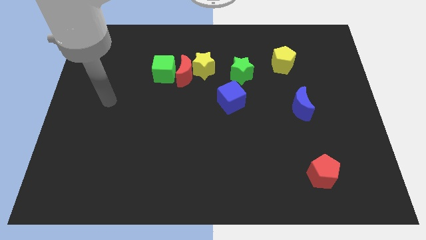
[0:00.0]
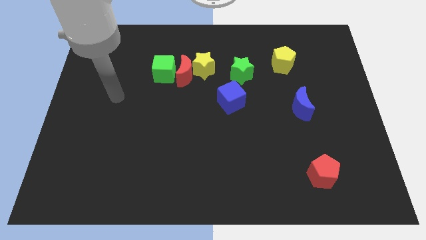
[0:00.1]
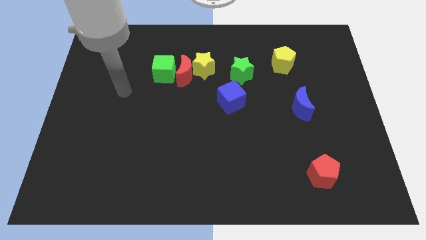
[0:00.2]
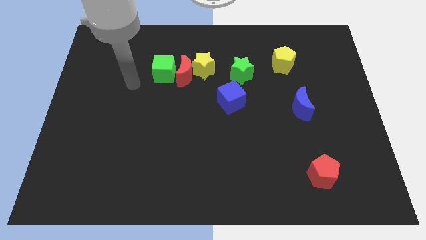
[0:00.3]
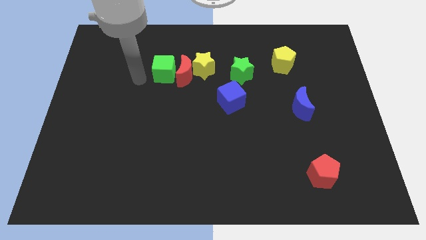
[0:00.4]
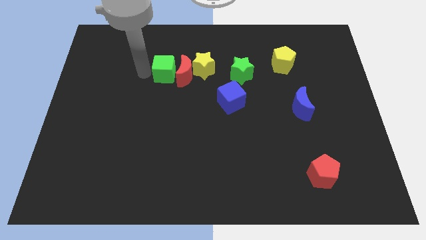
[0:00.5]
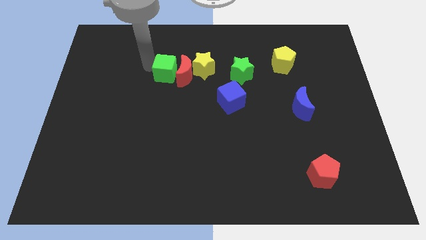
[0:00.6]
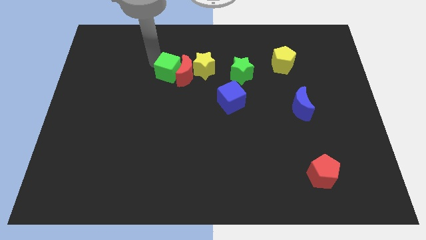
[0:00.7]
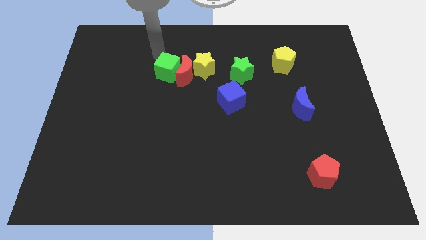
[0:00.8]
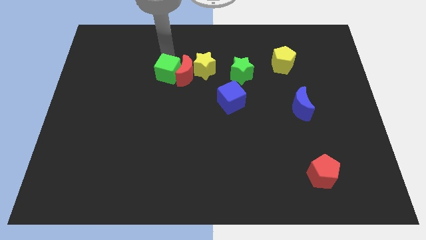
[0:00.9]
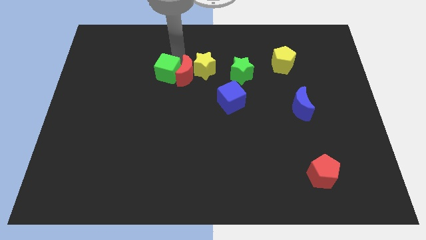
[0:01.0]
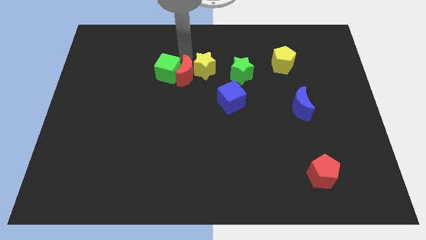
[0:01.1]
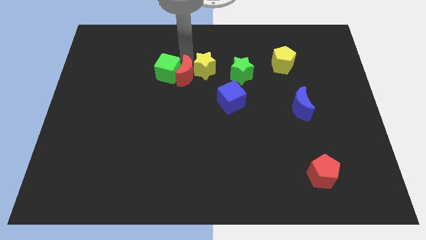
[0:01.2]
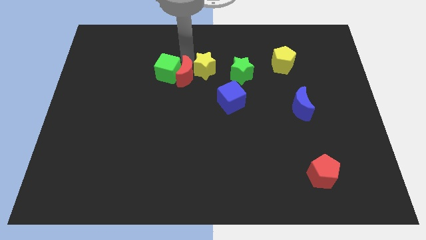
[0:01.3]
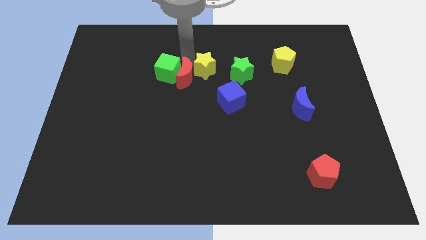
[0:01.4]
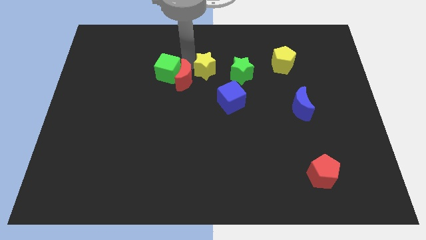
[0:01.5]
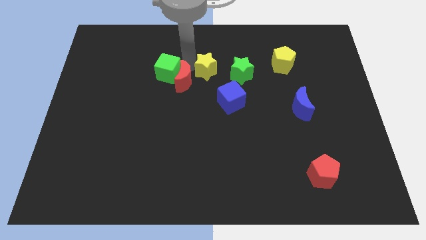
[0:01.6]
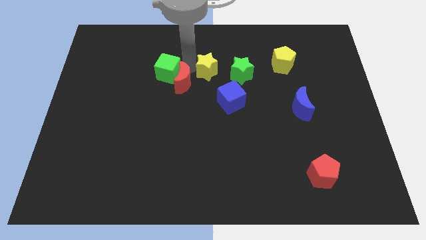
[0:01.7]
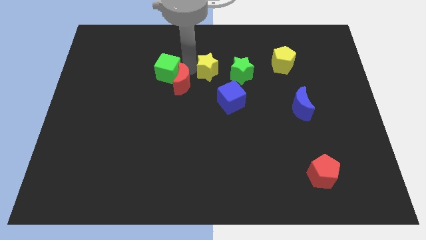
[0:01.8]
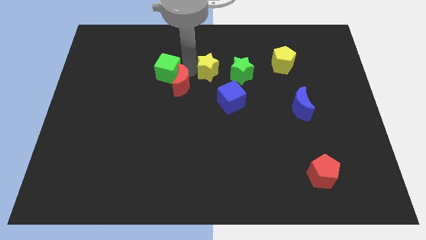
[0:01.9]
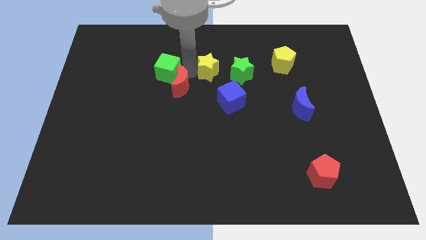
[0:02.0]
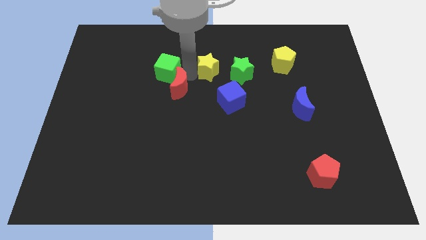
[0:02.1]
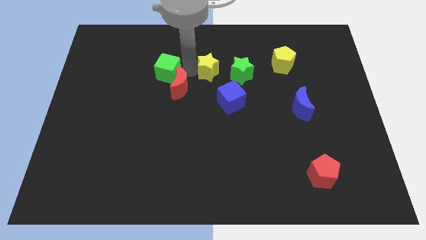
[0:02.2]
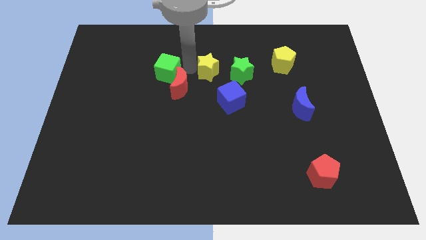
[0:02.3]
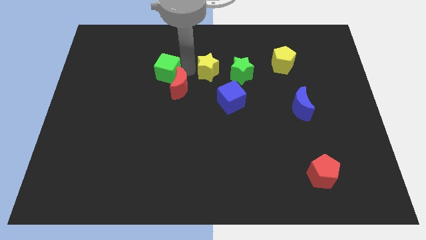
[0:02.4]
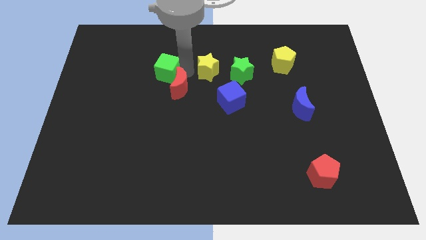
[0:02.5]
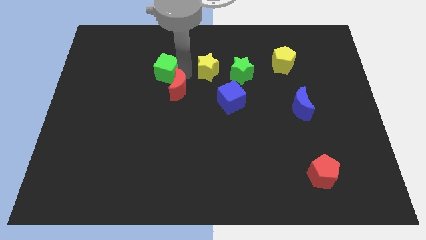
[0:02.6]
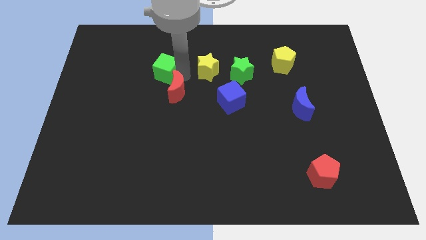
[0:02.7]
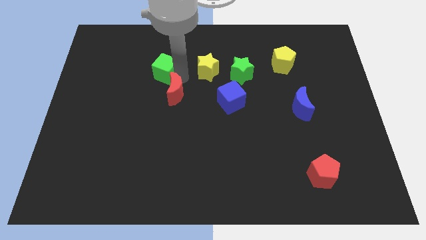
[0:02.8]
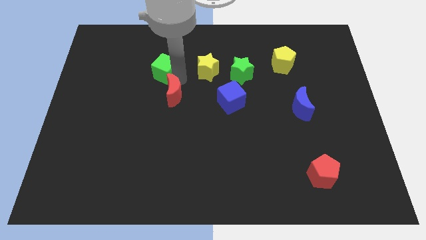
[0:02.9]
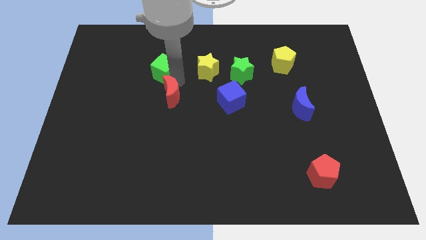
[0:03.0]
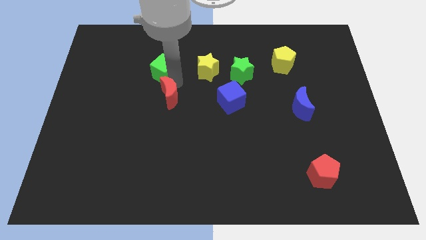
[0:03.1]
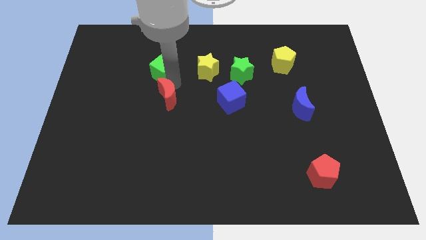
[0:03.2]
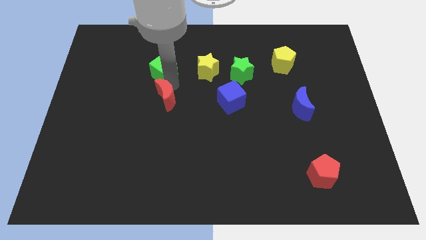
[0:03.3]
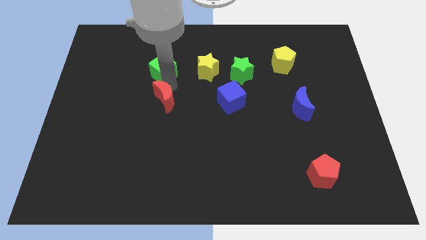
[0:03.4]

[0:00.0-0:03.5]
pull the red moon apart from the yellow star and green cube

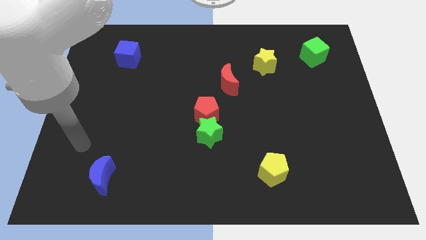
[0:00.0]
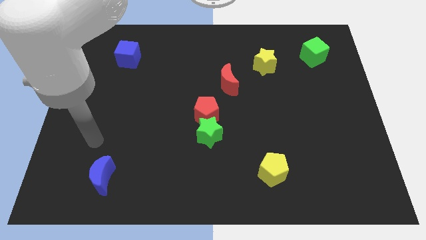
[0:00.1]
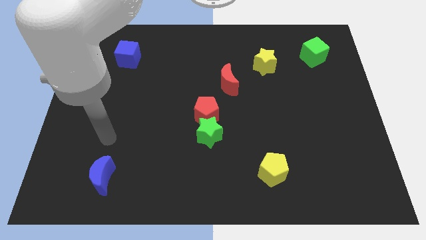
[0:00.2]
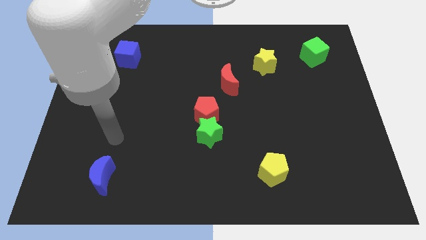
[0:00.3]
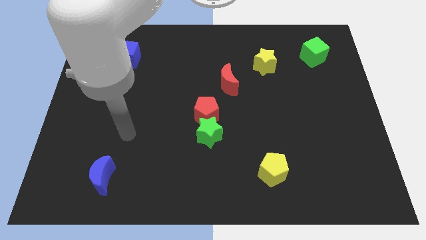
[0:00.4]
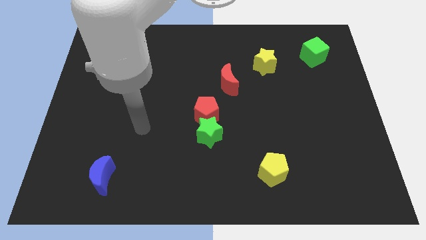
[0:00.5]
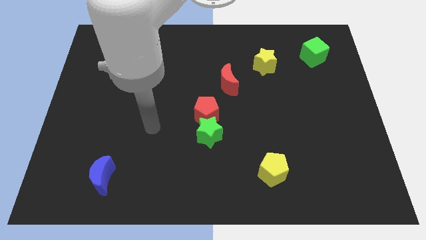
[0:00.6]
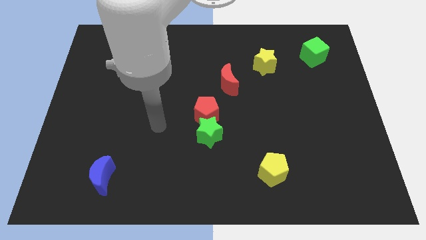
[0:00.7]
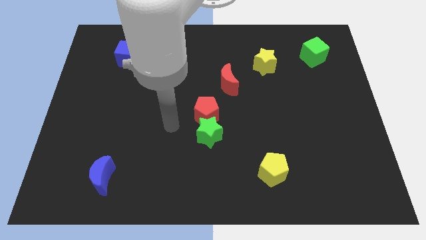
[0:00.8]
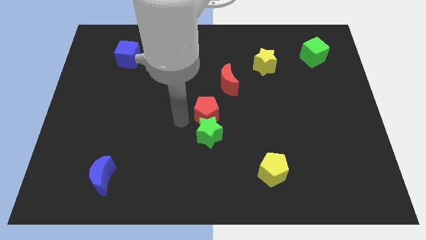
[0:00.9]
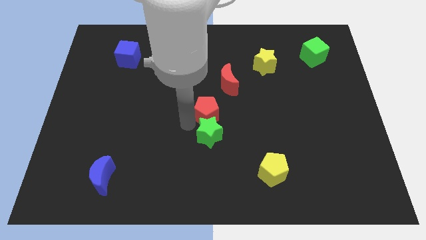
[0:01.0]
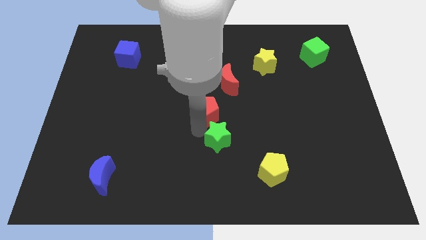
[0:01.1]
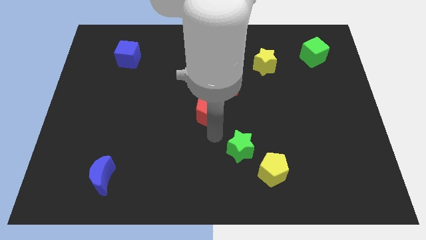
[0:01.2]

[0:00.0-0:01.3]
pull the red pentagon apart from the green star

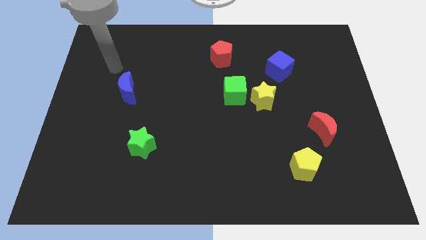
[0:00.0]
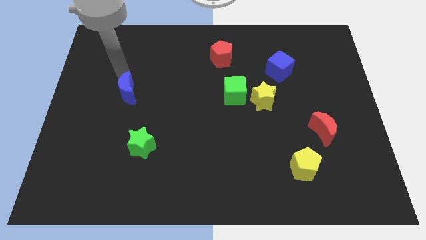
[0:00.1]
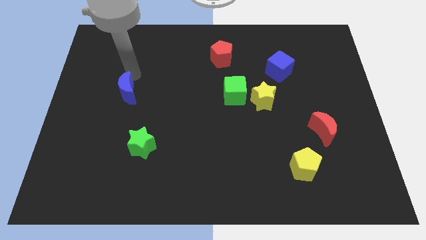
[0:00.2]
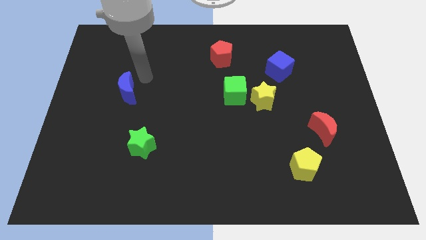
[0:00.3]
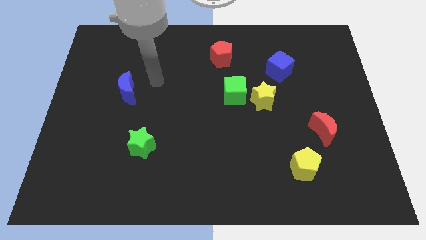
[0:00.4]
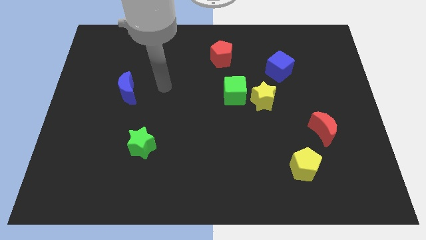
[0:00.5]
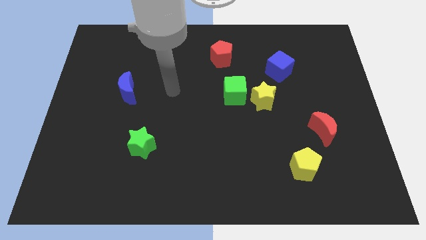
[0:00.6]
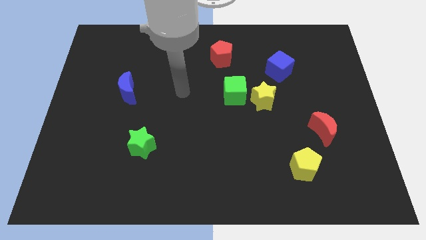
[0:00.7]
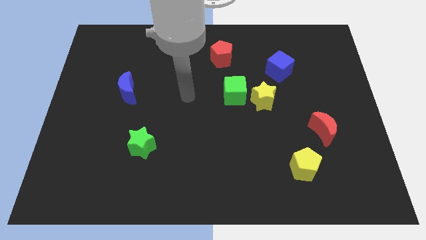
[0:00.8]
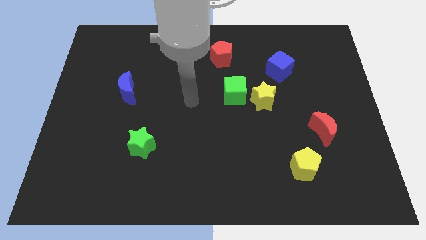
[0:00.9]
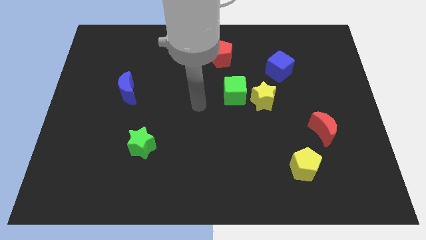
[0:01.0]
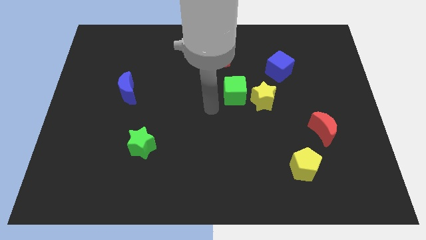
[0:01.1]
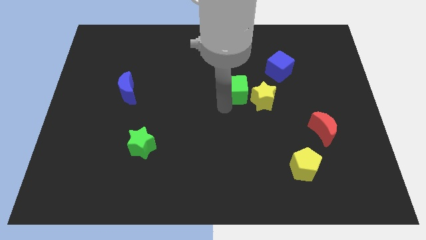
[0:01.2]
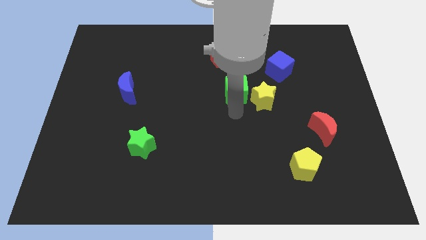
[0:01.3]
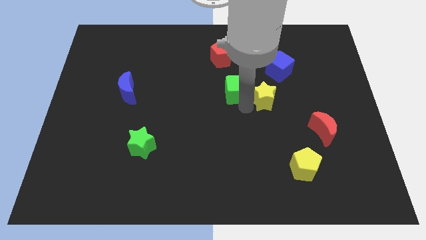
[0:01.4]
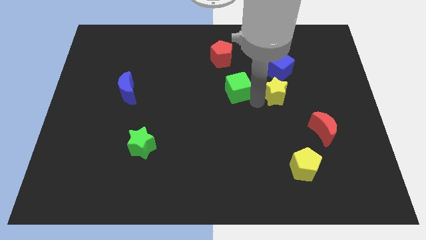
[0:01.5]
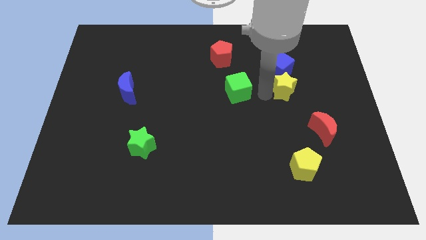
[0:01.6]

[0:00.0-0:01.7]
pull the green cube apart from the yellow star

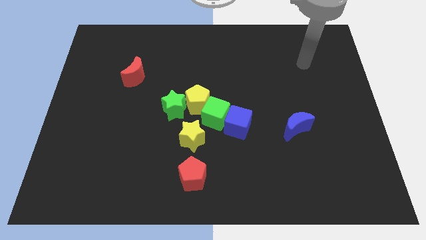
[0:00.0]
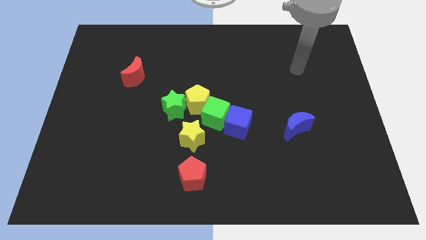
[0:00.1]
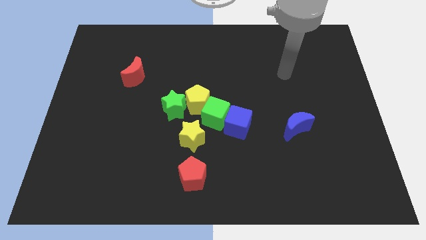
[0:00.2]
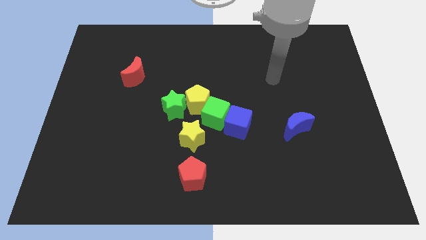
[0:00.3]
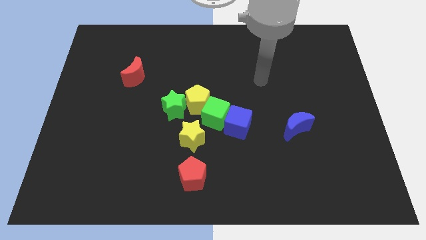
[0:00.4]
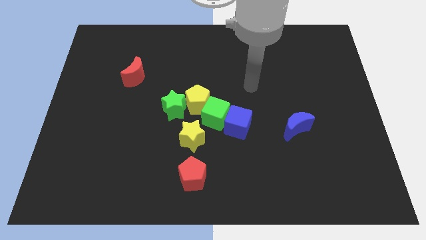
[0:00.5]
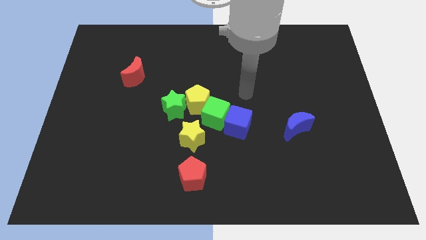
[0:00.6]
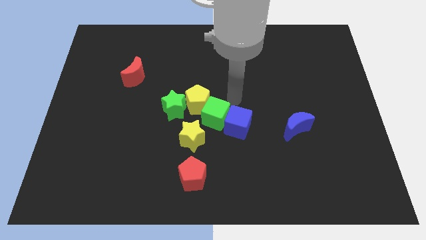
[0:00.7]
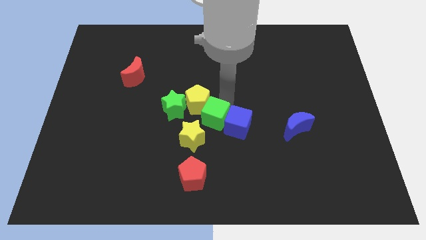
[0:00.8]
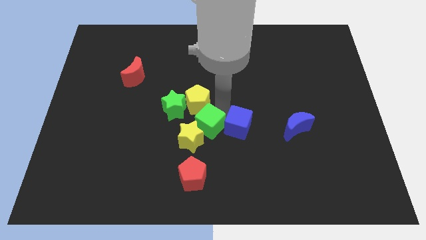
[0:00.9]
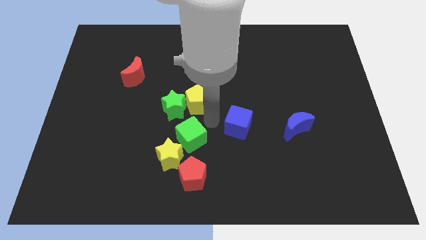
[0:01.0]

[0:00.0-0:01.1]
separate the blue cube from the green cube

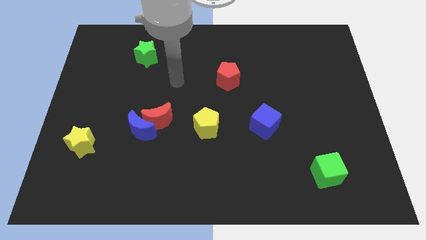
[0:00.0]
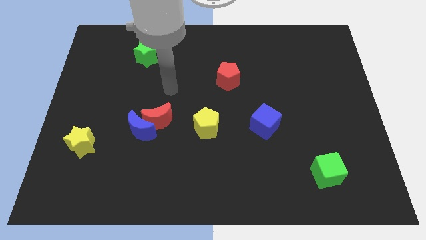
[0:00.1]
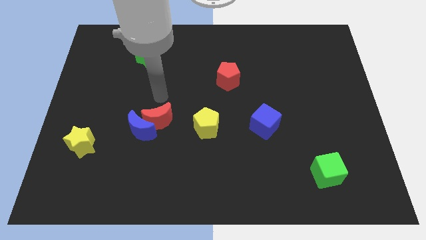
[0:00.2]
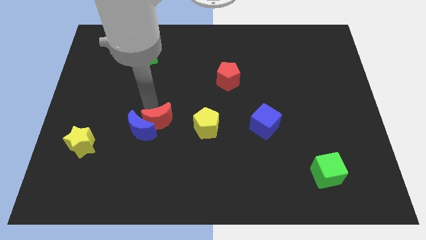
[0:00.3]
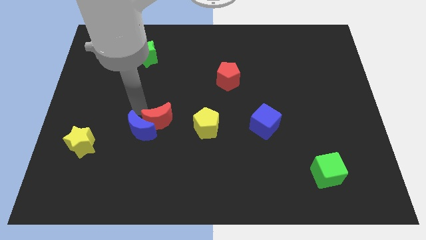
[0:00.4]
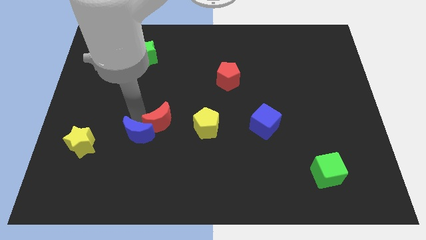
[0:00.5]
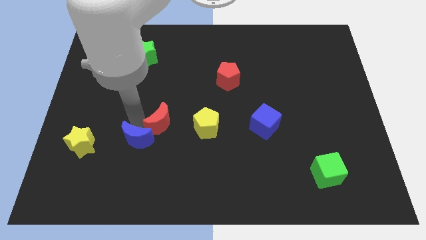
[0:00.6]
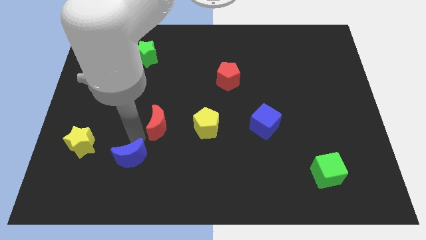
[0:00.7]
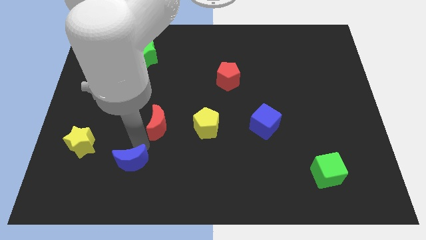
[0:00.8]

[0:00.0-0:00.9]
separate the red moon from the blue moon

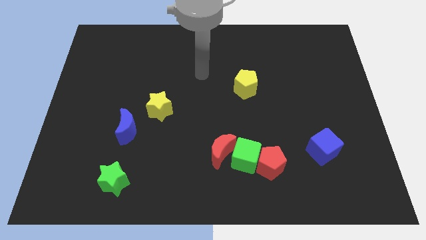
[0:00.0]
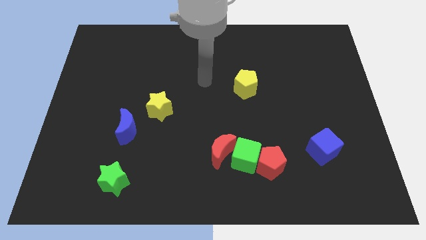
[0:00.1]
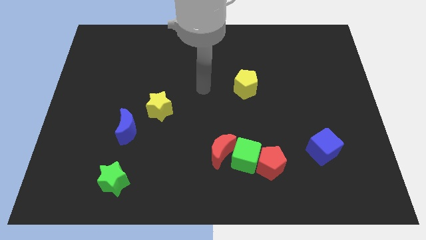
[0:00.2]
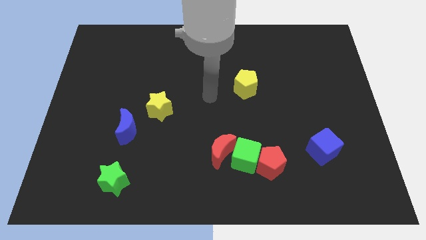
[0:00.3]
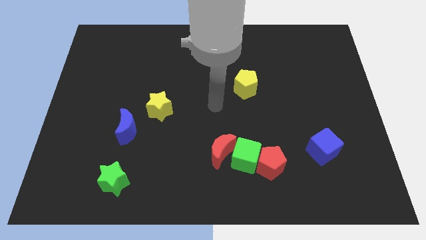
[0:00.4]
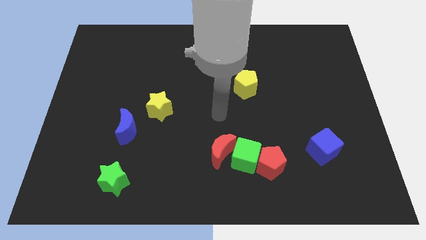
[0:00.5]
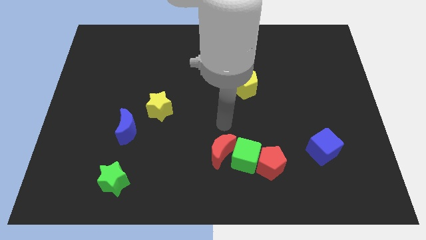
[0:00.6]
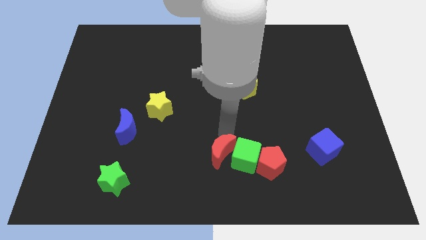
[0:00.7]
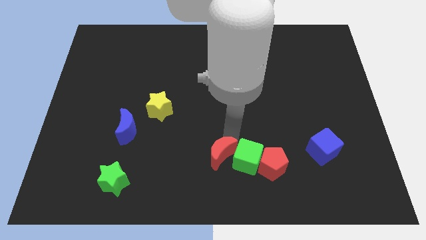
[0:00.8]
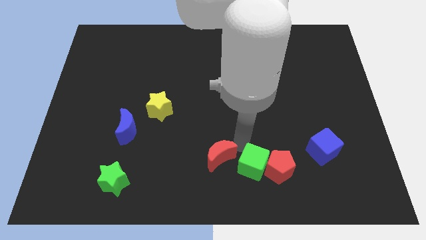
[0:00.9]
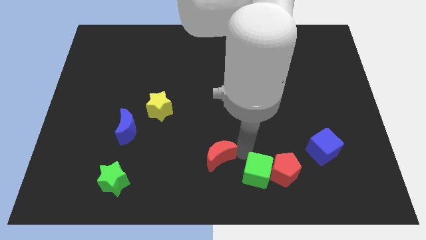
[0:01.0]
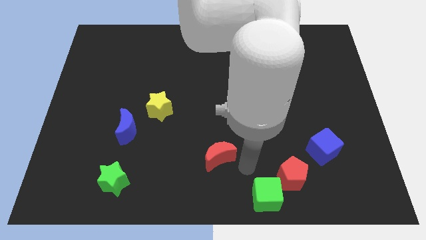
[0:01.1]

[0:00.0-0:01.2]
move the red moon away from the green cube
